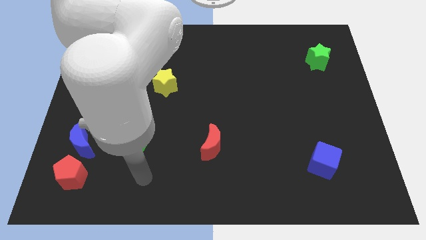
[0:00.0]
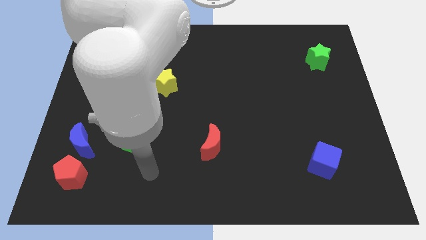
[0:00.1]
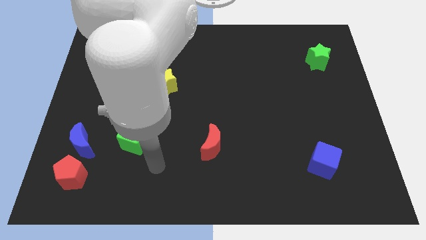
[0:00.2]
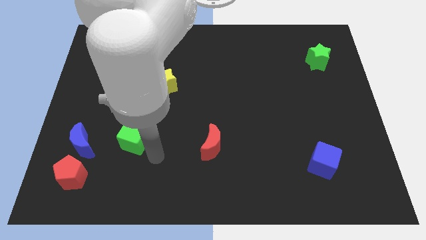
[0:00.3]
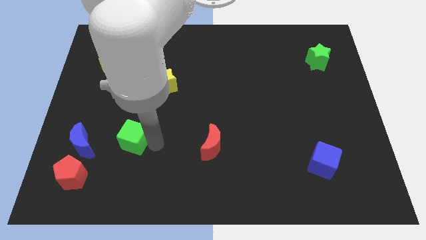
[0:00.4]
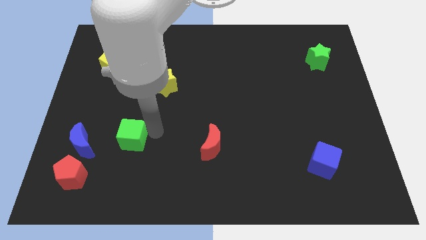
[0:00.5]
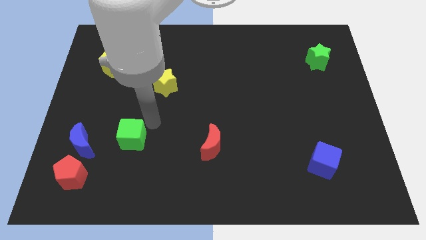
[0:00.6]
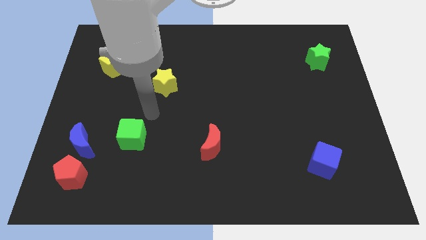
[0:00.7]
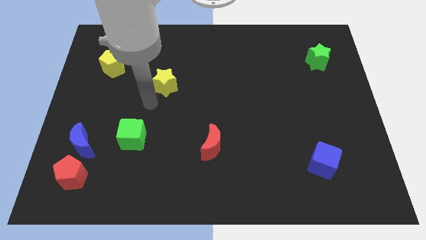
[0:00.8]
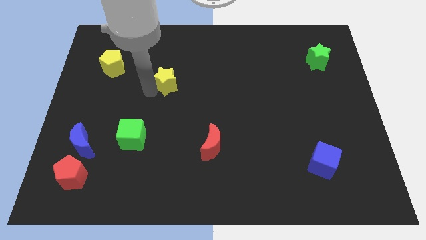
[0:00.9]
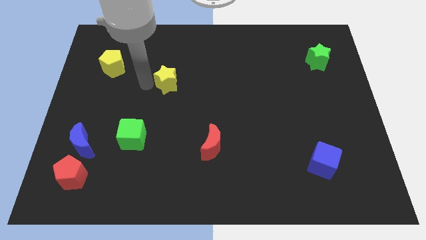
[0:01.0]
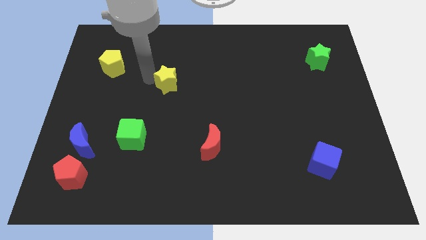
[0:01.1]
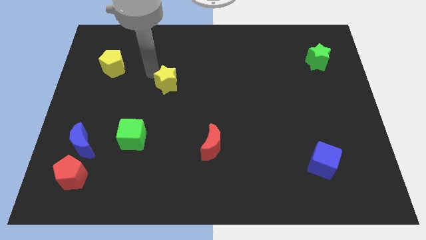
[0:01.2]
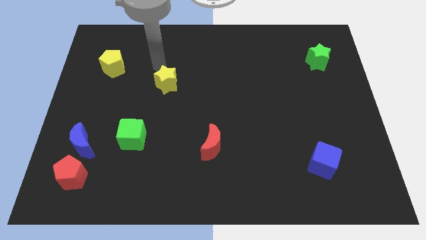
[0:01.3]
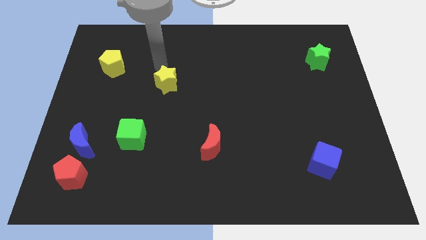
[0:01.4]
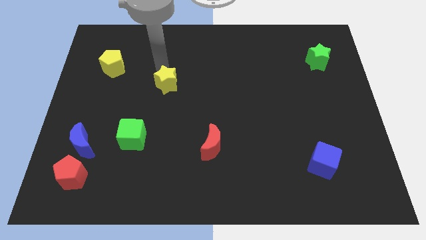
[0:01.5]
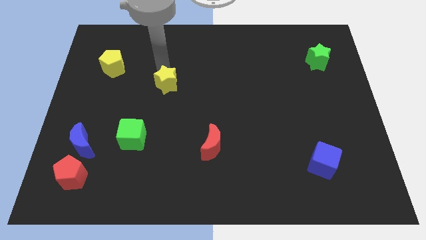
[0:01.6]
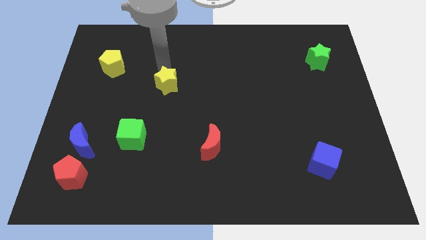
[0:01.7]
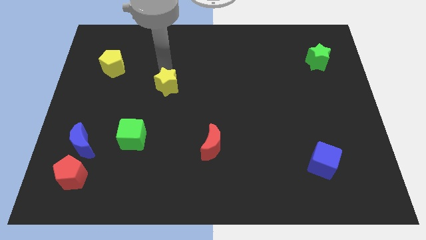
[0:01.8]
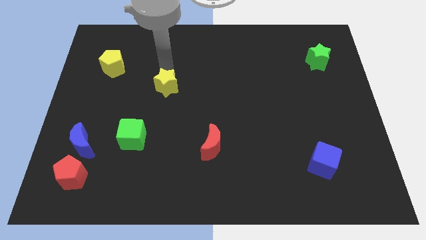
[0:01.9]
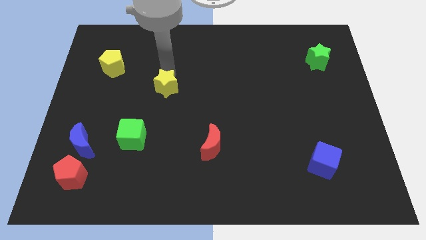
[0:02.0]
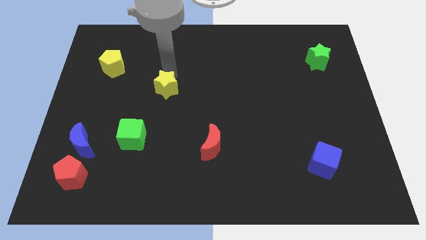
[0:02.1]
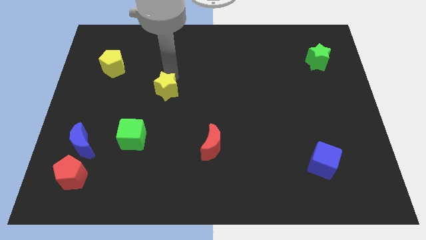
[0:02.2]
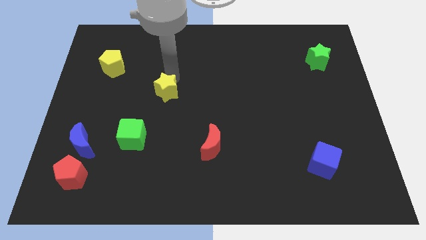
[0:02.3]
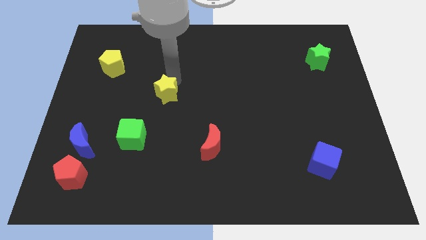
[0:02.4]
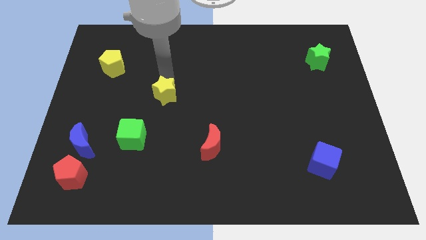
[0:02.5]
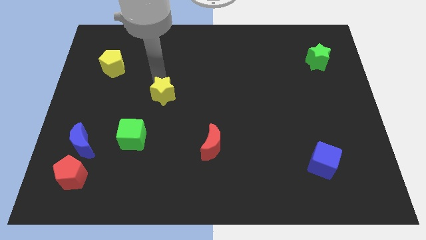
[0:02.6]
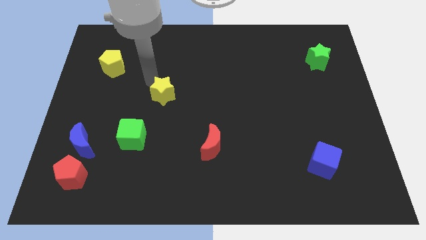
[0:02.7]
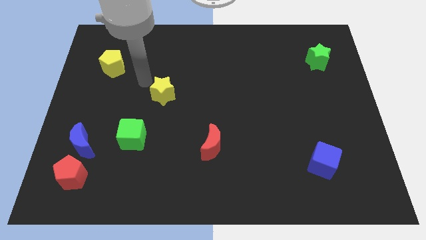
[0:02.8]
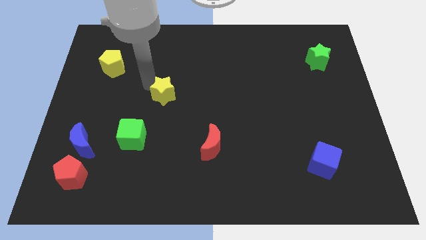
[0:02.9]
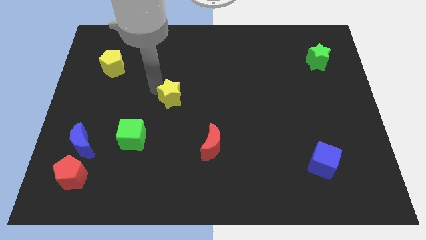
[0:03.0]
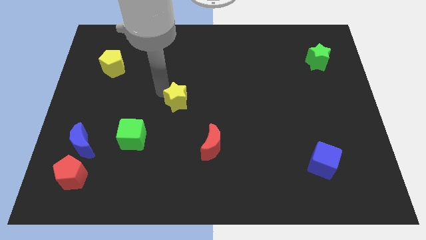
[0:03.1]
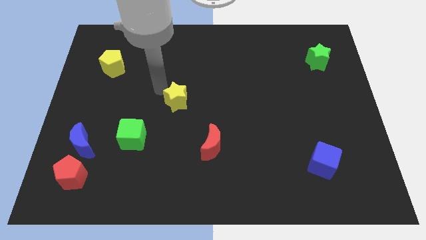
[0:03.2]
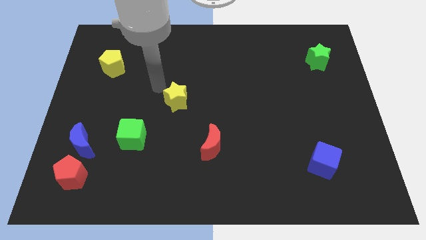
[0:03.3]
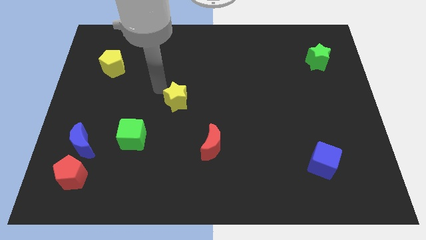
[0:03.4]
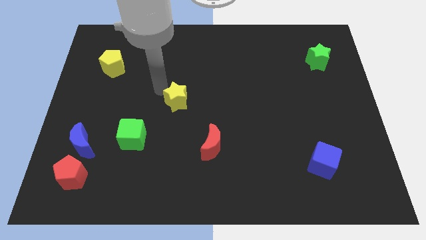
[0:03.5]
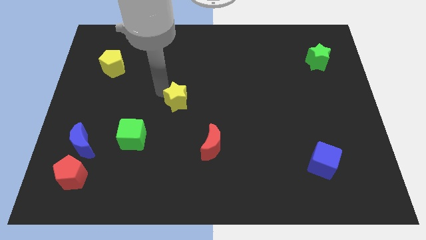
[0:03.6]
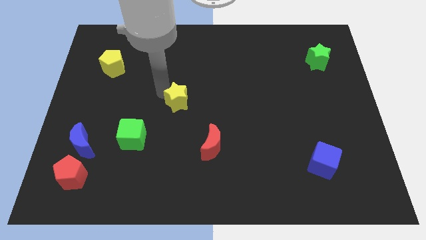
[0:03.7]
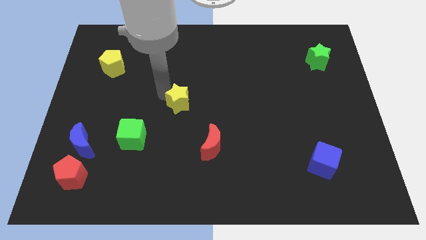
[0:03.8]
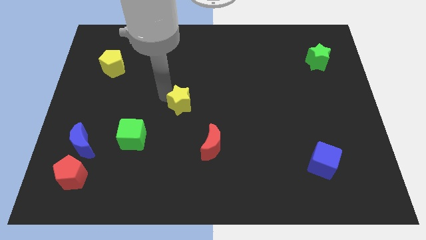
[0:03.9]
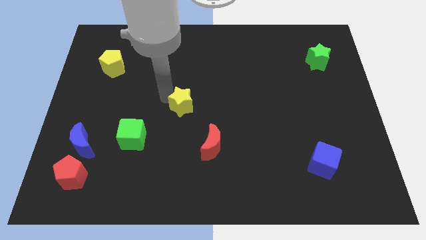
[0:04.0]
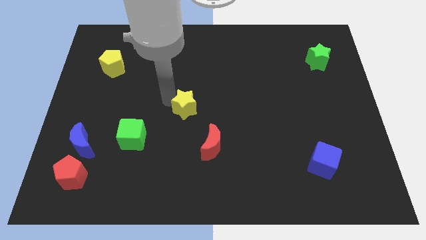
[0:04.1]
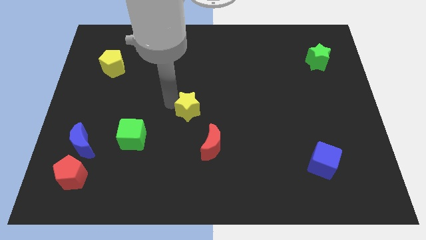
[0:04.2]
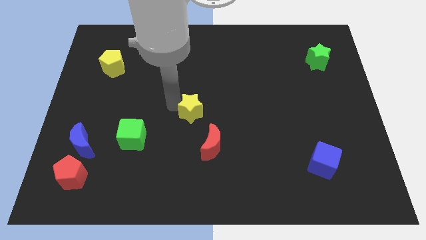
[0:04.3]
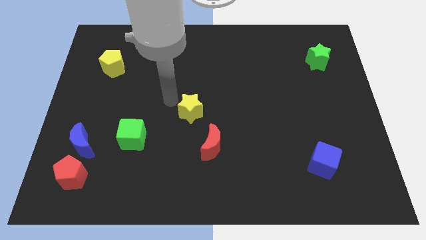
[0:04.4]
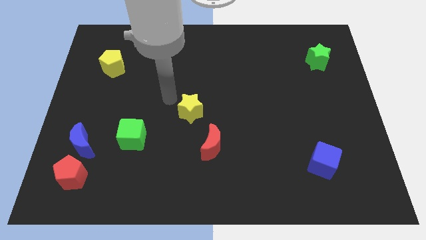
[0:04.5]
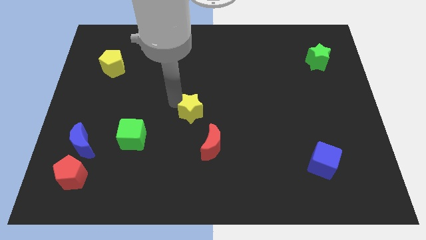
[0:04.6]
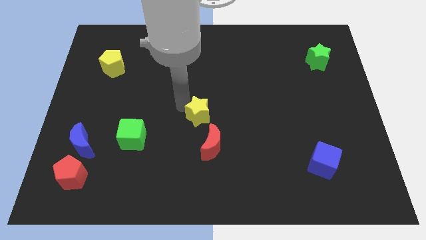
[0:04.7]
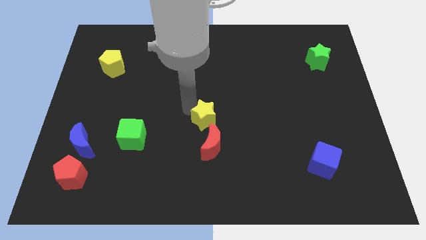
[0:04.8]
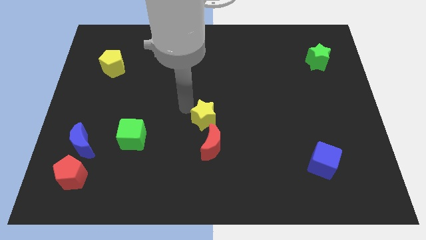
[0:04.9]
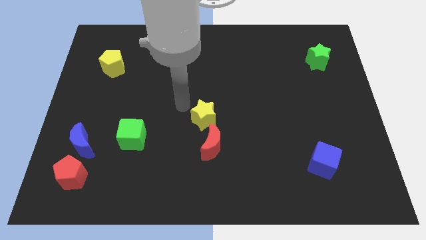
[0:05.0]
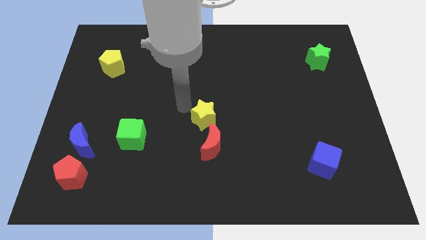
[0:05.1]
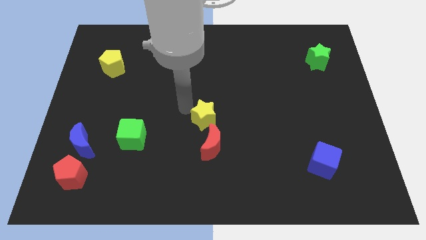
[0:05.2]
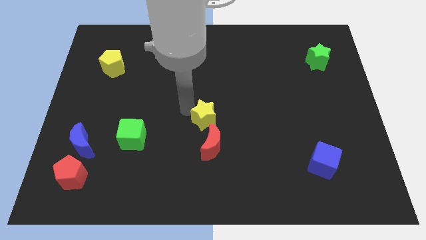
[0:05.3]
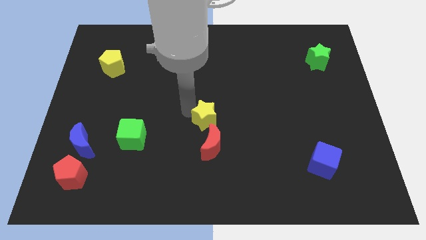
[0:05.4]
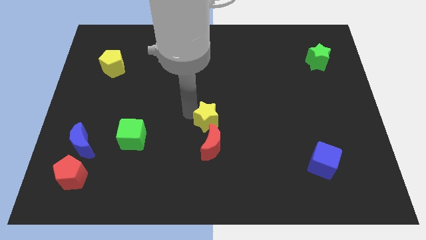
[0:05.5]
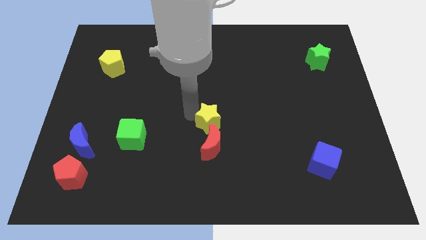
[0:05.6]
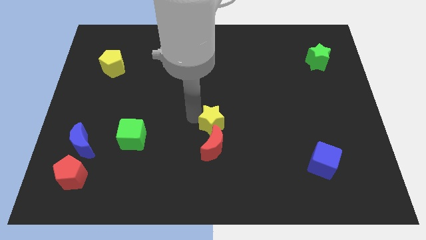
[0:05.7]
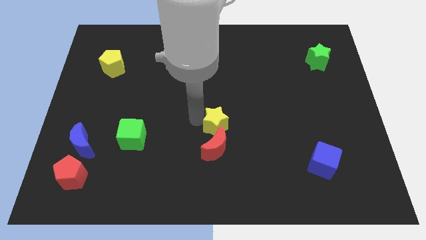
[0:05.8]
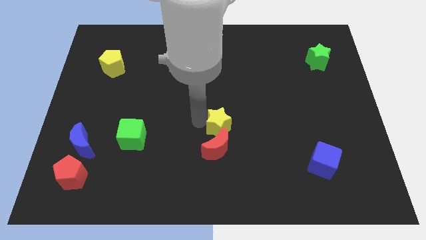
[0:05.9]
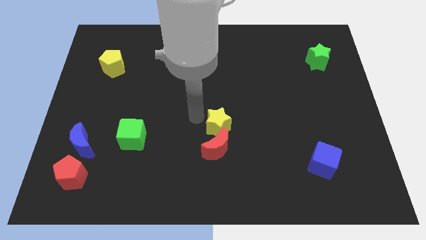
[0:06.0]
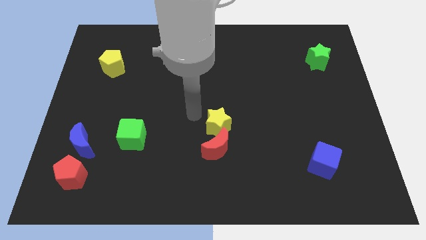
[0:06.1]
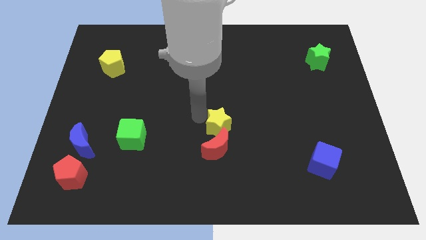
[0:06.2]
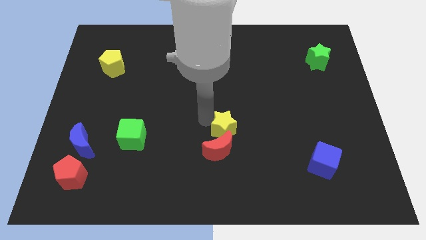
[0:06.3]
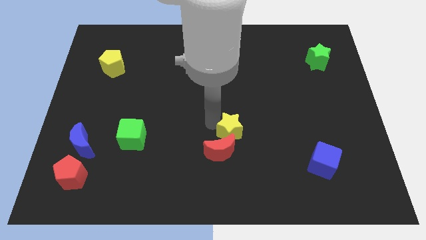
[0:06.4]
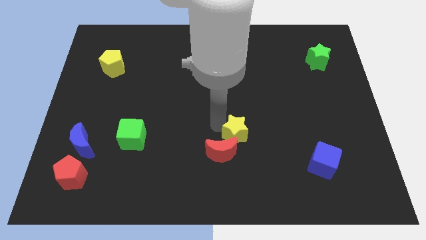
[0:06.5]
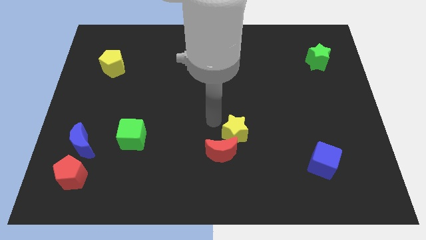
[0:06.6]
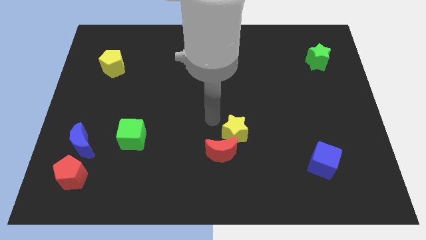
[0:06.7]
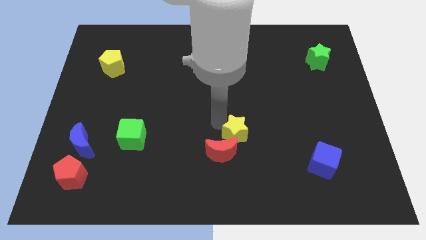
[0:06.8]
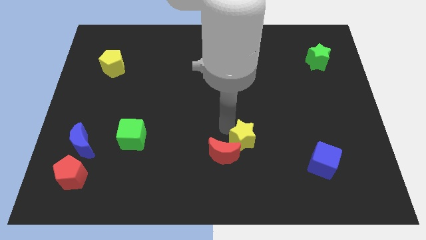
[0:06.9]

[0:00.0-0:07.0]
put the yellow star right of the red moon

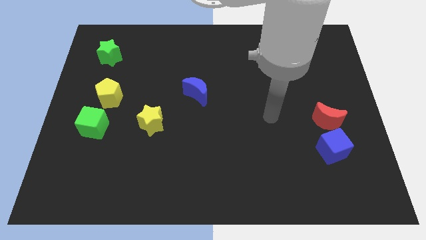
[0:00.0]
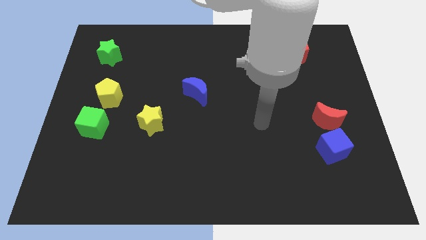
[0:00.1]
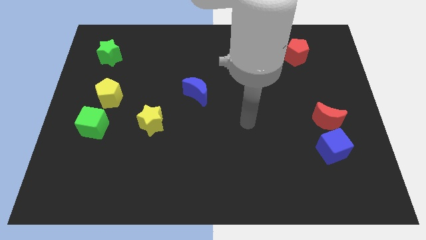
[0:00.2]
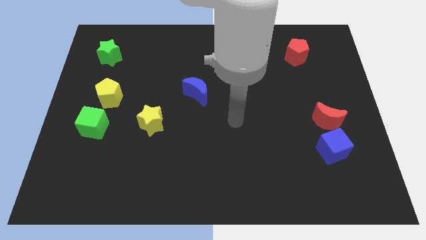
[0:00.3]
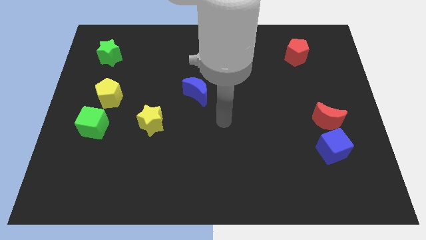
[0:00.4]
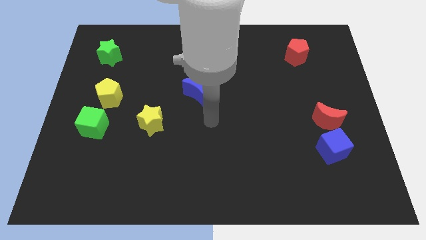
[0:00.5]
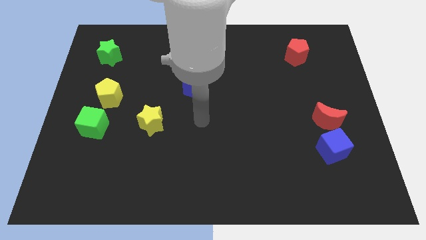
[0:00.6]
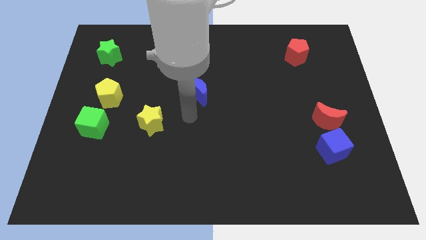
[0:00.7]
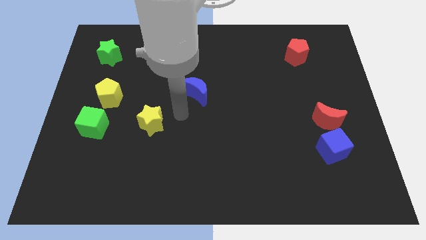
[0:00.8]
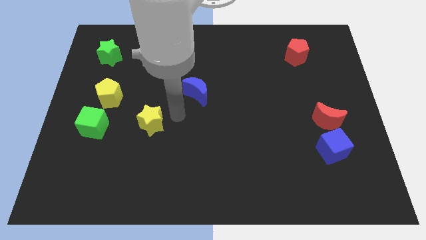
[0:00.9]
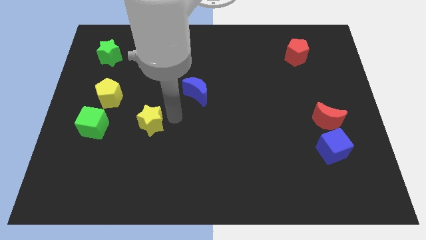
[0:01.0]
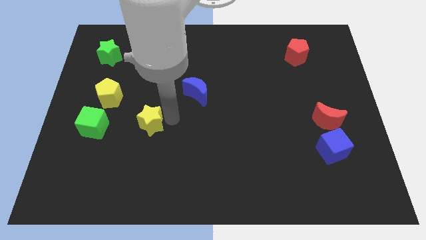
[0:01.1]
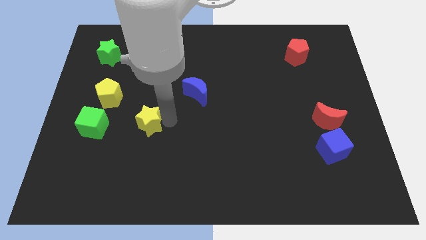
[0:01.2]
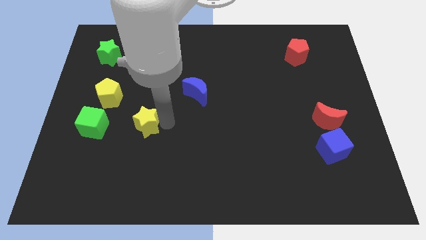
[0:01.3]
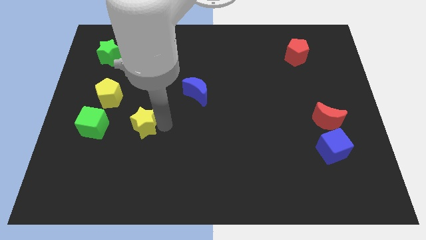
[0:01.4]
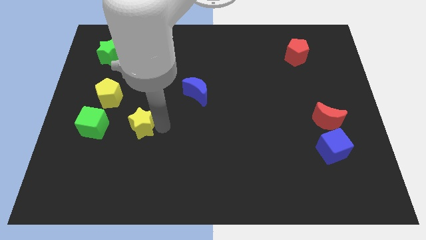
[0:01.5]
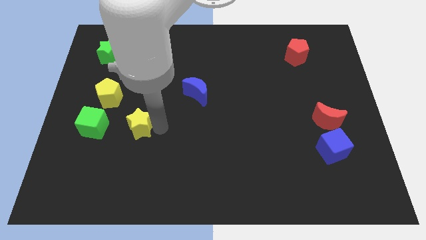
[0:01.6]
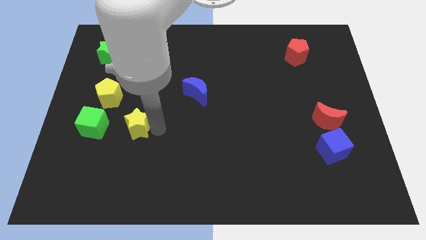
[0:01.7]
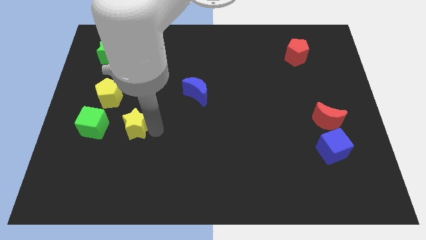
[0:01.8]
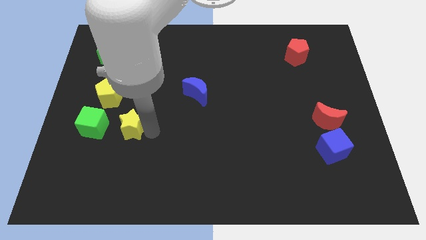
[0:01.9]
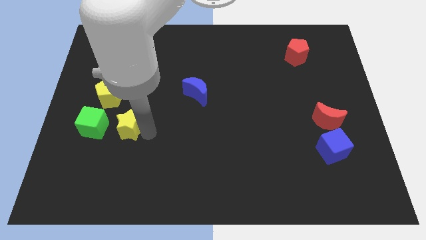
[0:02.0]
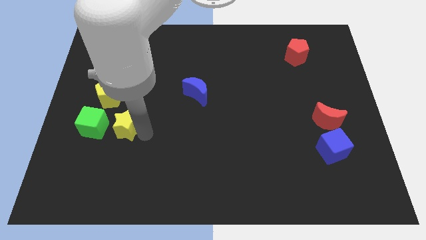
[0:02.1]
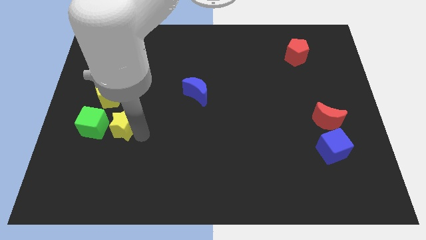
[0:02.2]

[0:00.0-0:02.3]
move the yellow star to the bottom side of the yellow pentagon
